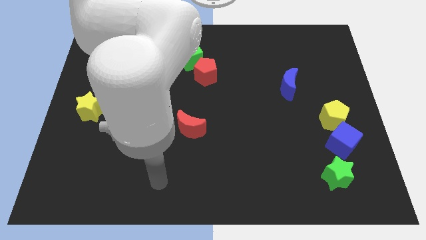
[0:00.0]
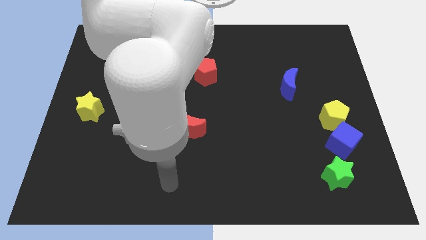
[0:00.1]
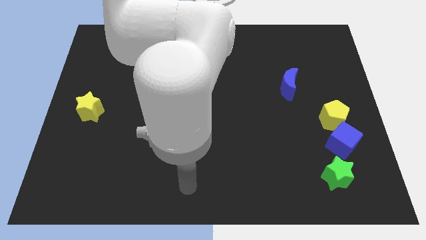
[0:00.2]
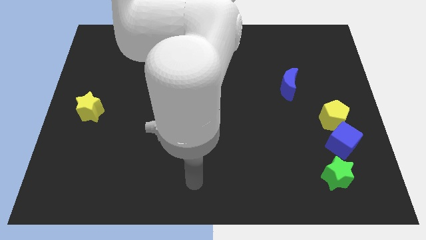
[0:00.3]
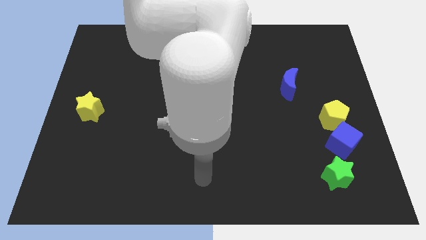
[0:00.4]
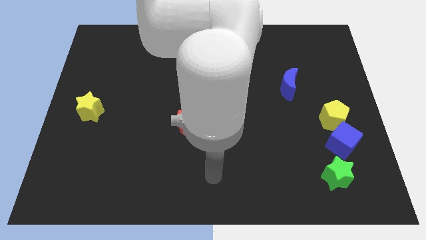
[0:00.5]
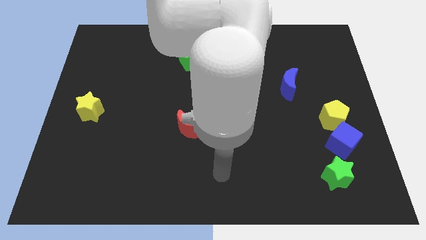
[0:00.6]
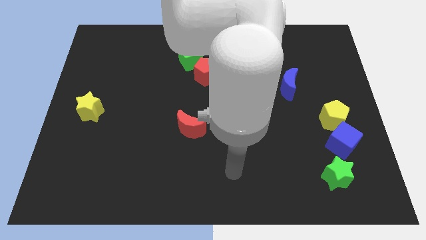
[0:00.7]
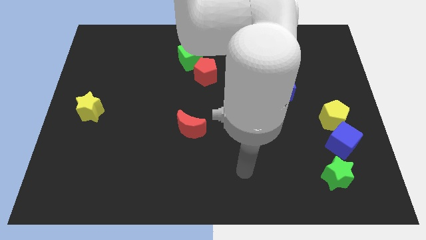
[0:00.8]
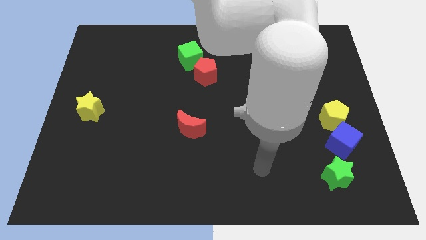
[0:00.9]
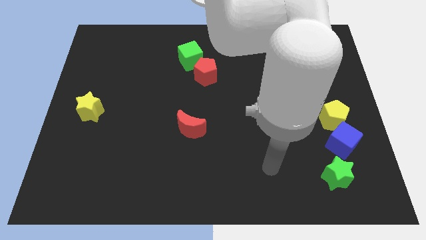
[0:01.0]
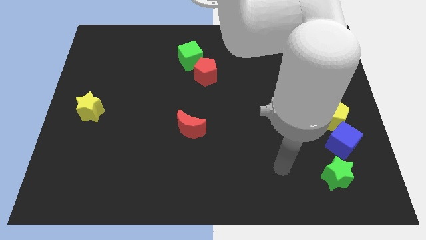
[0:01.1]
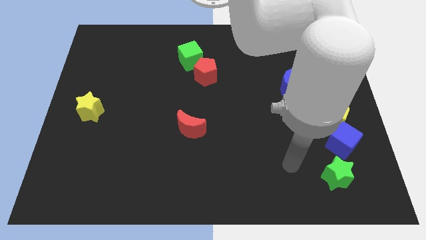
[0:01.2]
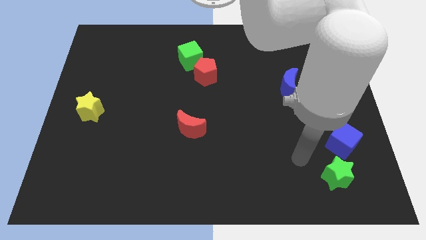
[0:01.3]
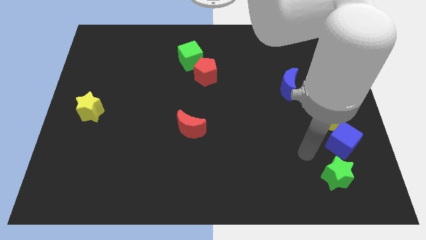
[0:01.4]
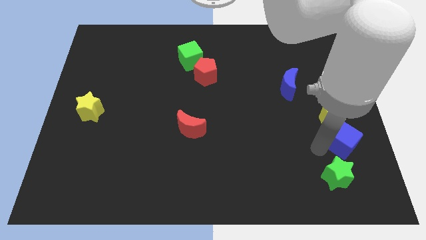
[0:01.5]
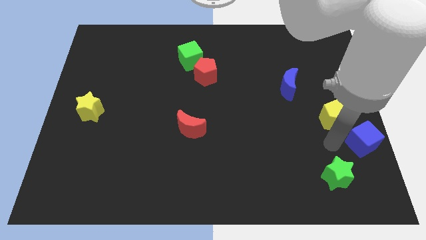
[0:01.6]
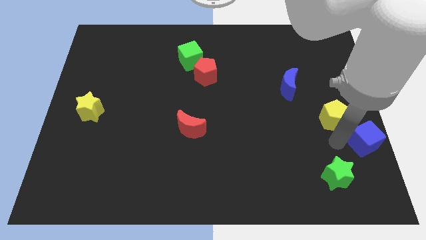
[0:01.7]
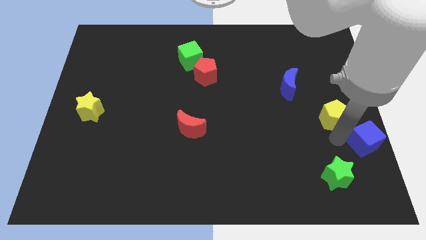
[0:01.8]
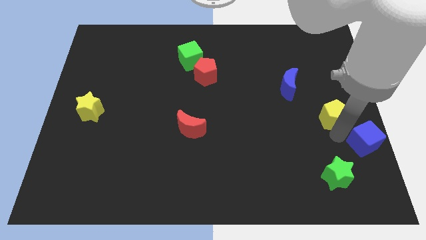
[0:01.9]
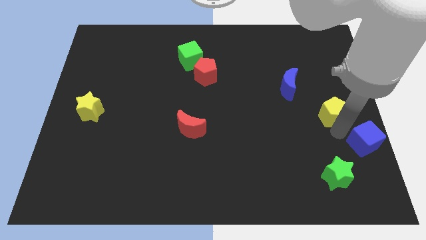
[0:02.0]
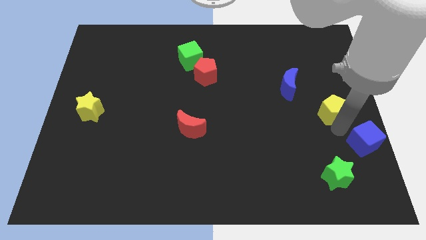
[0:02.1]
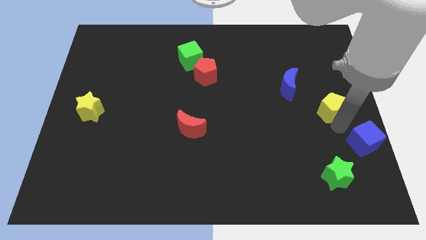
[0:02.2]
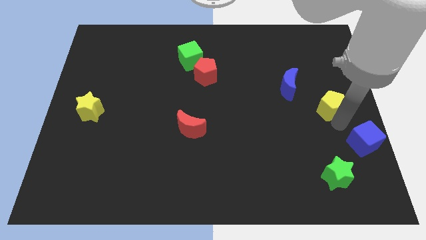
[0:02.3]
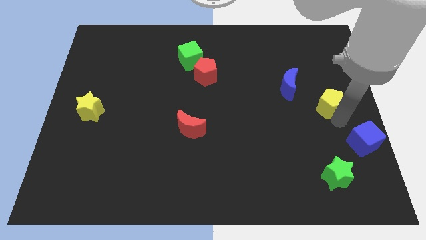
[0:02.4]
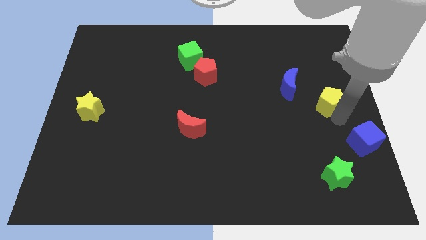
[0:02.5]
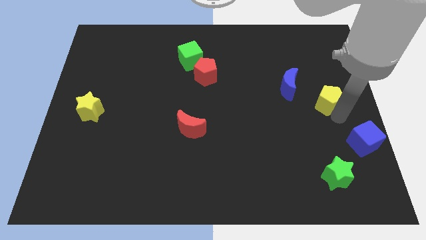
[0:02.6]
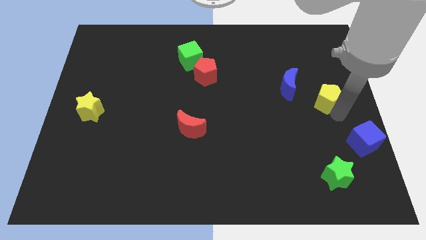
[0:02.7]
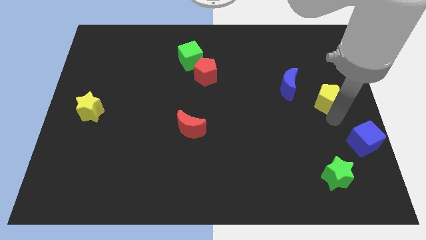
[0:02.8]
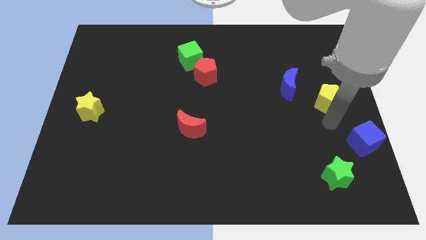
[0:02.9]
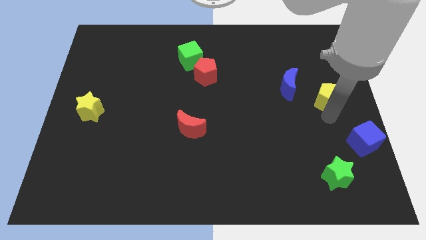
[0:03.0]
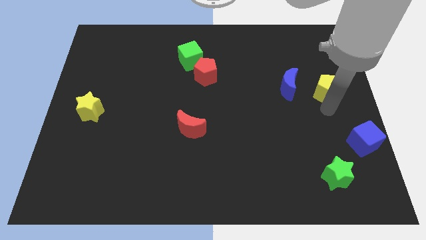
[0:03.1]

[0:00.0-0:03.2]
slide the yellow pentagon upwards a little bit

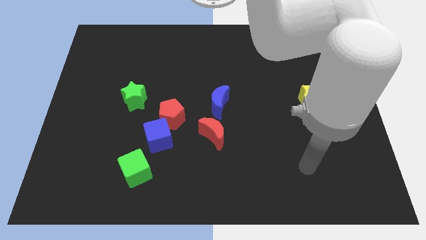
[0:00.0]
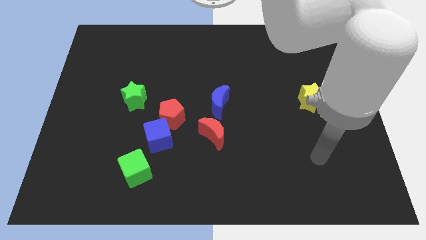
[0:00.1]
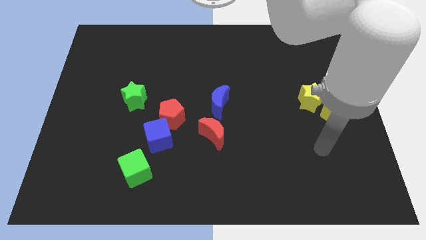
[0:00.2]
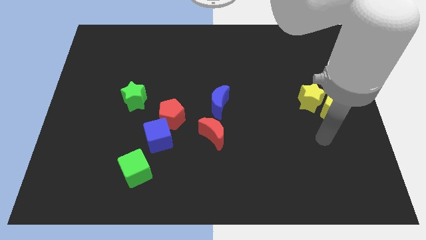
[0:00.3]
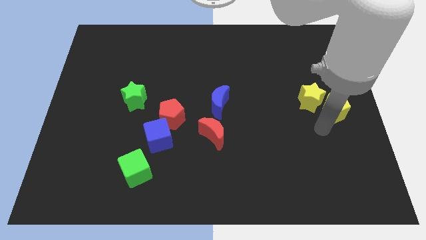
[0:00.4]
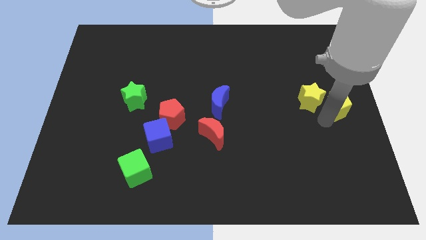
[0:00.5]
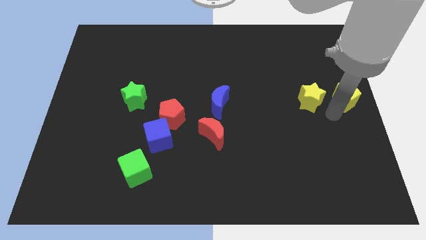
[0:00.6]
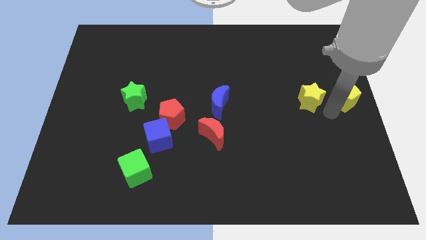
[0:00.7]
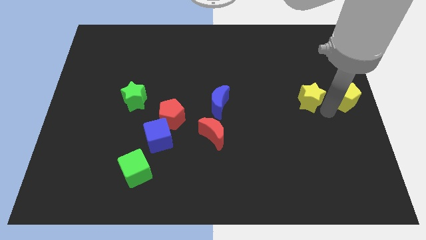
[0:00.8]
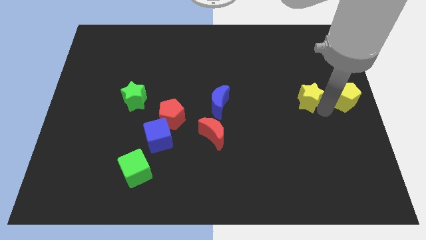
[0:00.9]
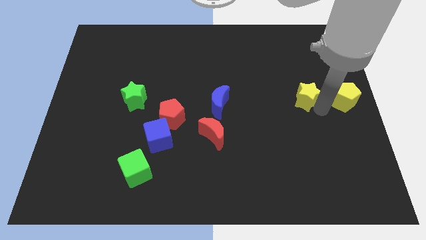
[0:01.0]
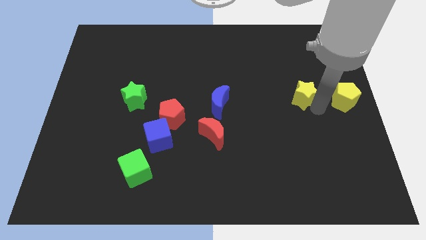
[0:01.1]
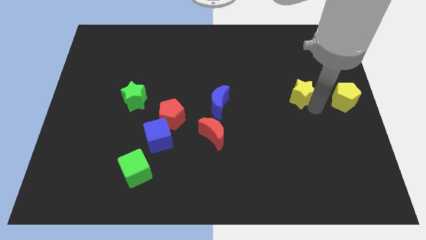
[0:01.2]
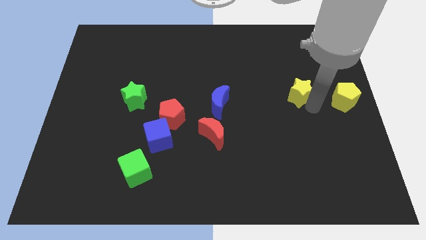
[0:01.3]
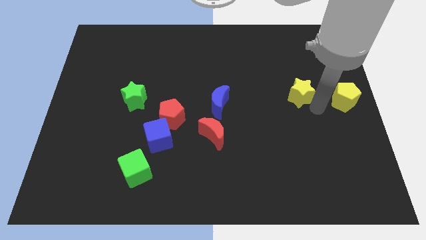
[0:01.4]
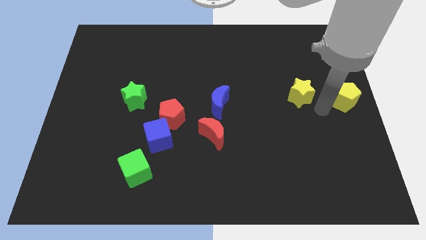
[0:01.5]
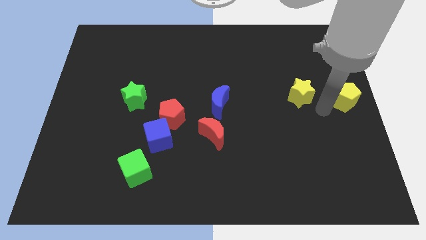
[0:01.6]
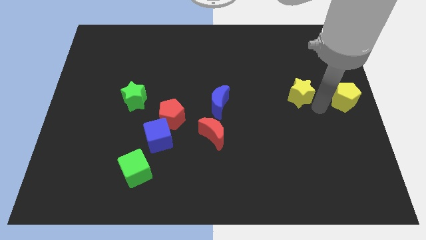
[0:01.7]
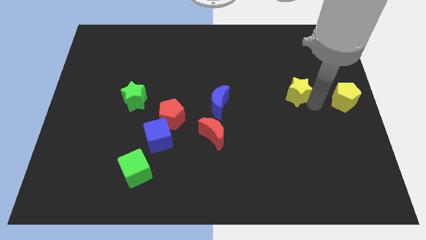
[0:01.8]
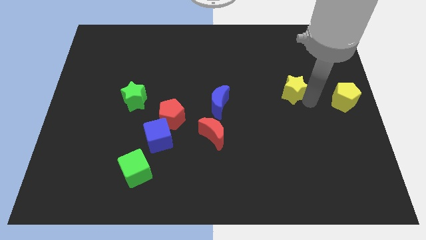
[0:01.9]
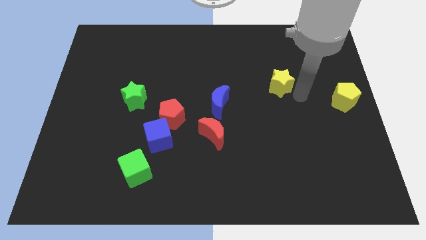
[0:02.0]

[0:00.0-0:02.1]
slightly push the yellow star up and to the left diagonally

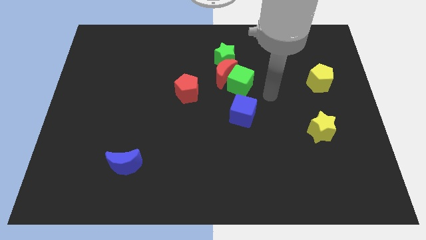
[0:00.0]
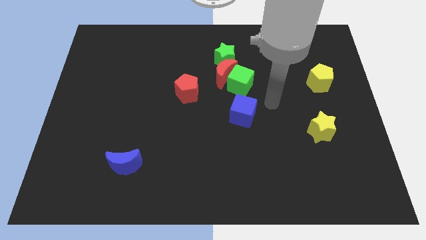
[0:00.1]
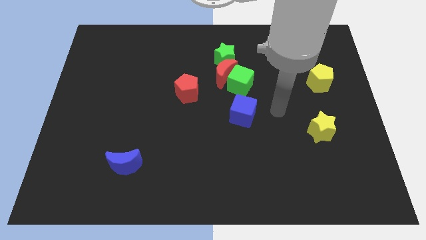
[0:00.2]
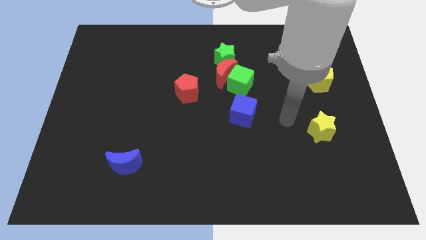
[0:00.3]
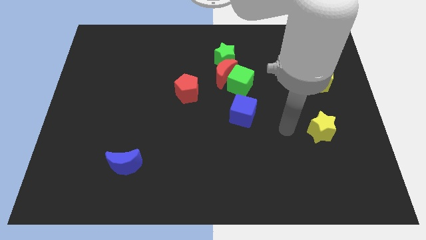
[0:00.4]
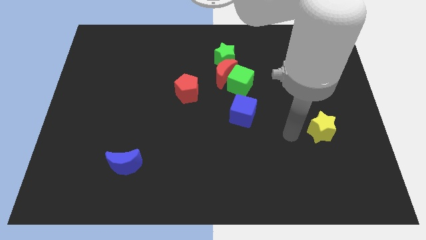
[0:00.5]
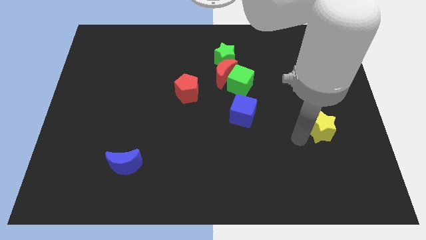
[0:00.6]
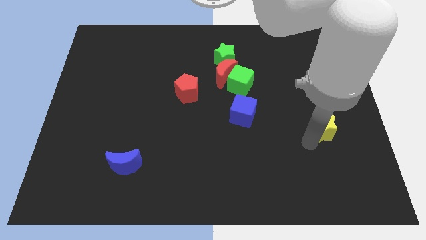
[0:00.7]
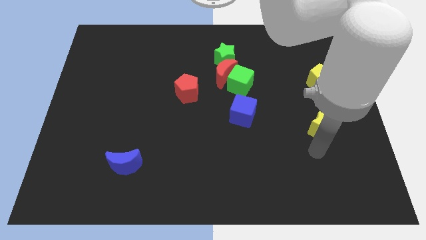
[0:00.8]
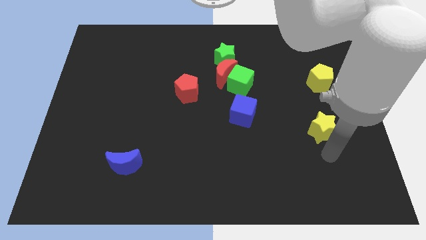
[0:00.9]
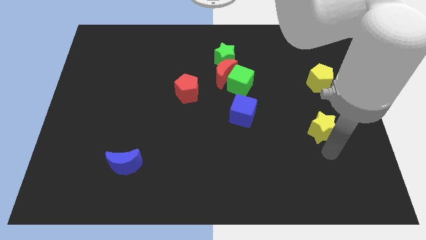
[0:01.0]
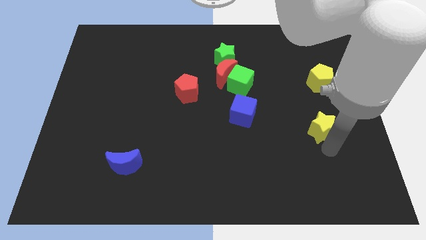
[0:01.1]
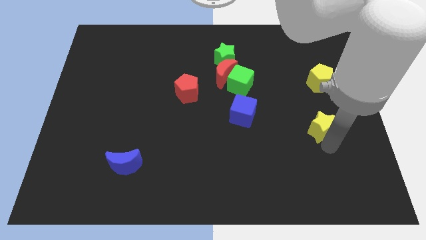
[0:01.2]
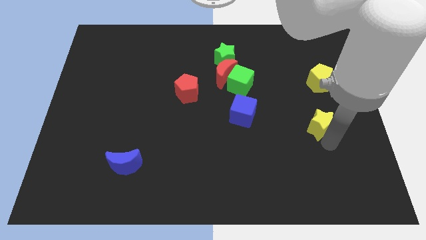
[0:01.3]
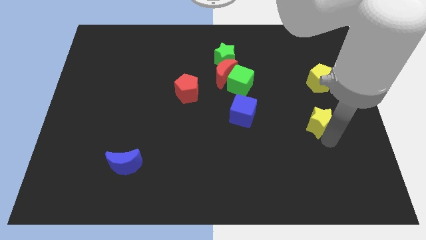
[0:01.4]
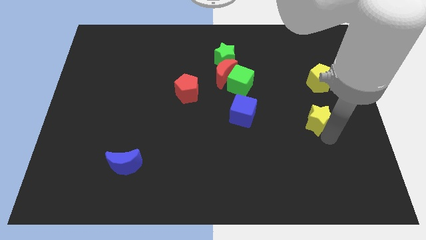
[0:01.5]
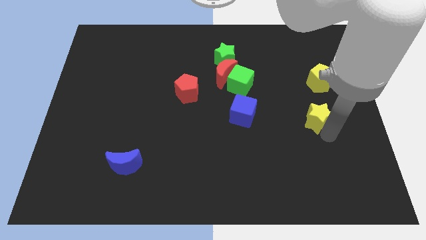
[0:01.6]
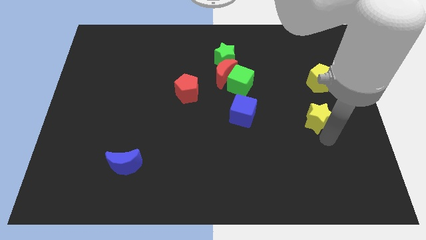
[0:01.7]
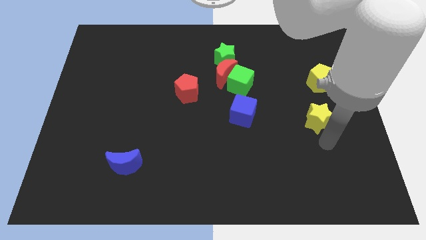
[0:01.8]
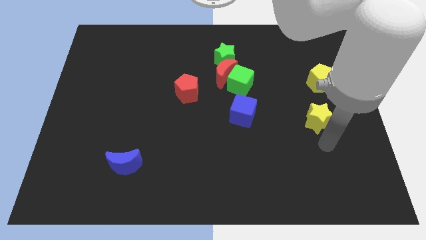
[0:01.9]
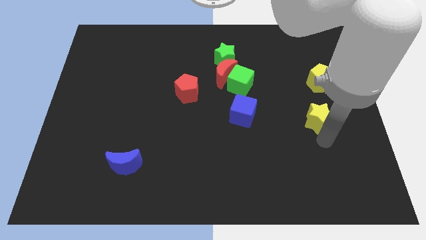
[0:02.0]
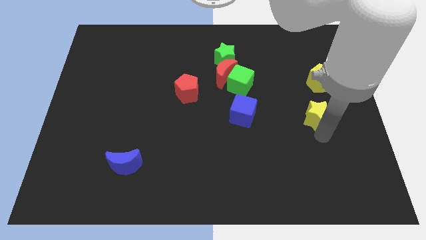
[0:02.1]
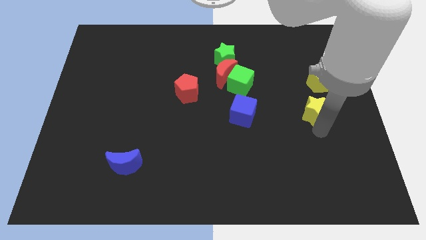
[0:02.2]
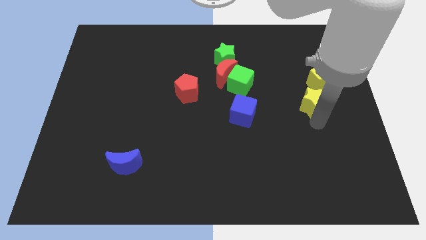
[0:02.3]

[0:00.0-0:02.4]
slide the yellow star up slightly

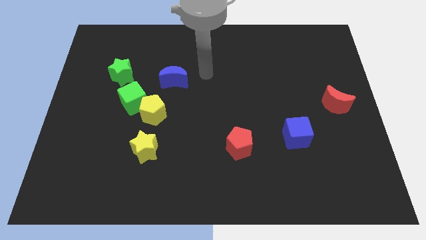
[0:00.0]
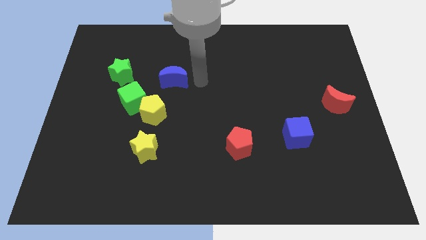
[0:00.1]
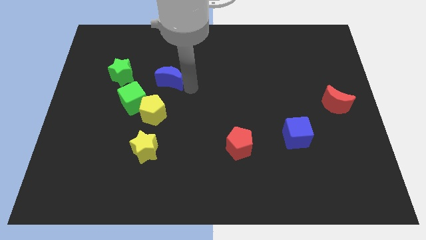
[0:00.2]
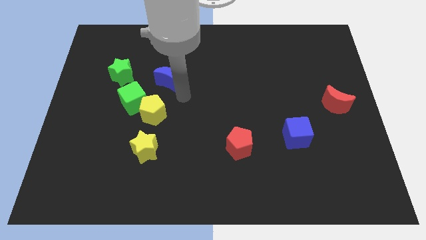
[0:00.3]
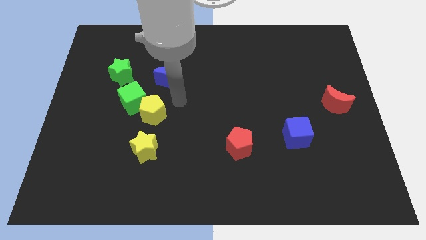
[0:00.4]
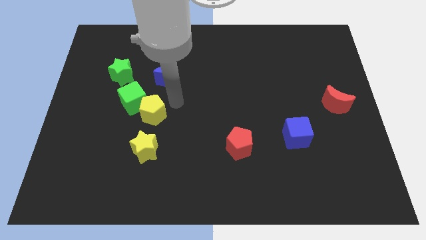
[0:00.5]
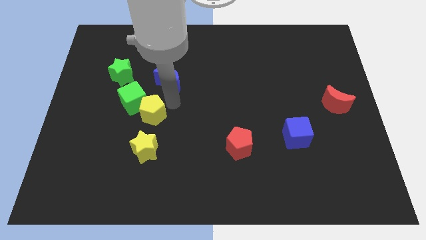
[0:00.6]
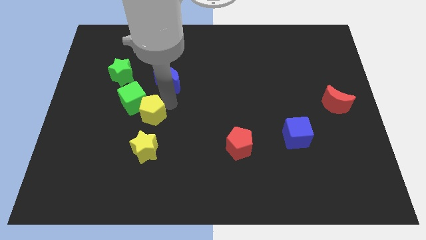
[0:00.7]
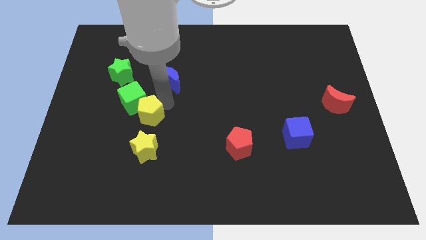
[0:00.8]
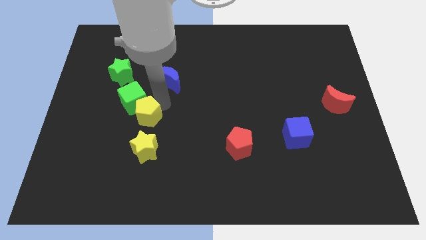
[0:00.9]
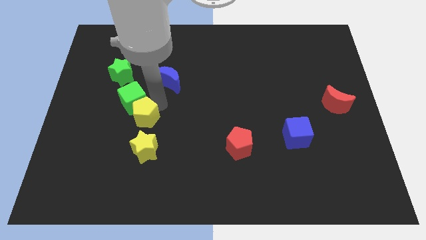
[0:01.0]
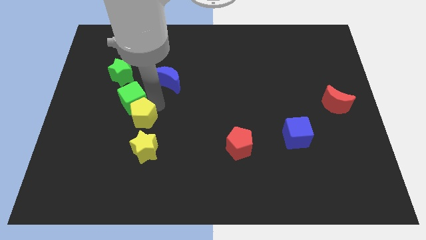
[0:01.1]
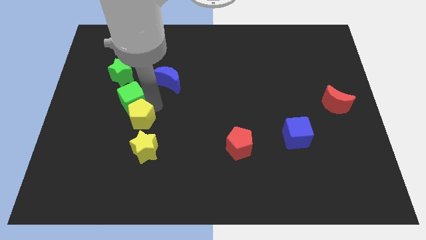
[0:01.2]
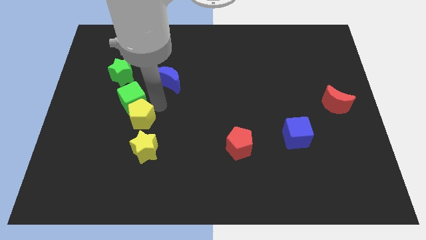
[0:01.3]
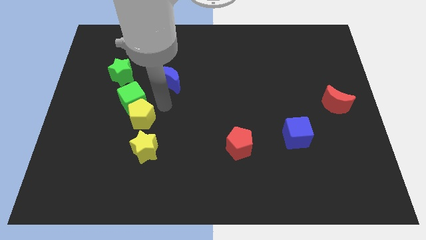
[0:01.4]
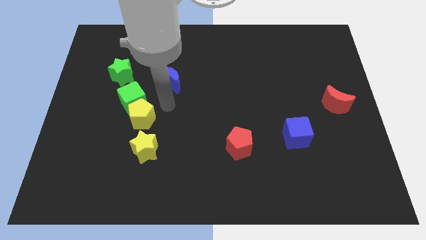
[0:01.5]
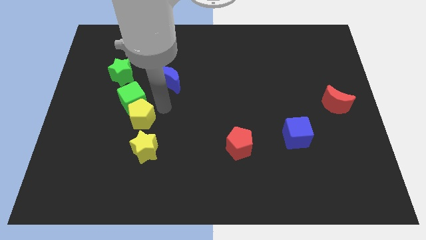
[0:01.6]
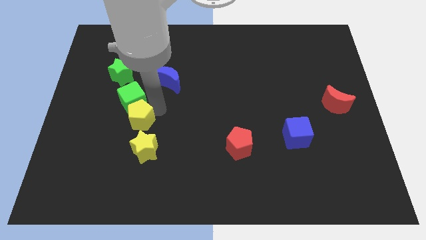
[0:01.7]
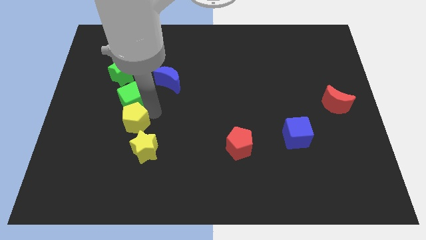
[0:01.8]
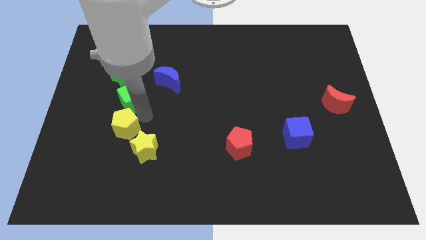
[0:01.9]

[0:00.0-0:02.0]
slide the yellow pentagon a little downwards and then to the left
